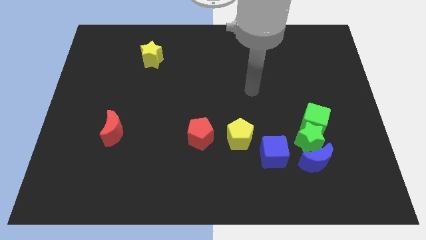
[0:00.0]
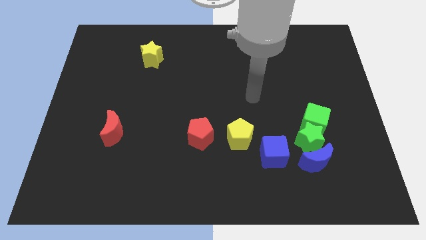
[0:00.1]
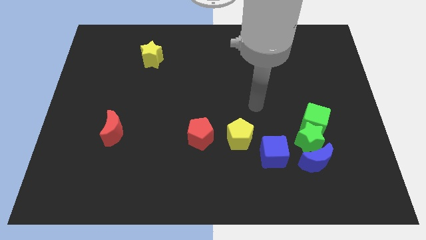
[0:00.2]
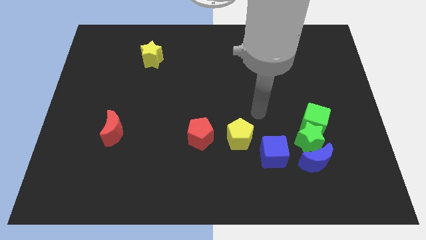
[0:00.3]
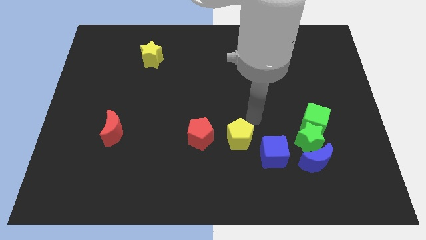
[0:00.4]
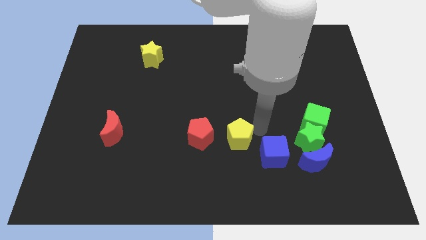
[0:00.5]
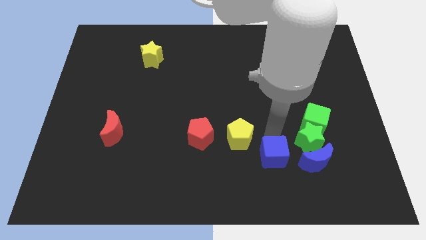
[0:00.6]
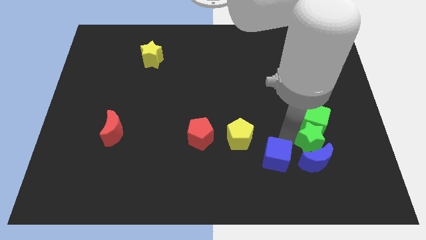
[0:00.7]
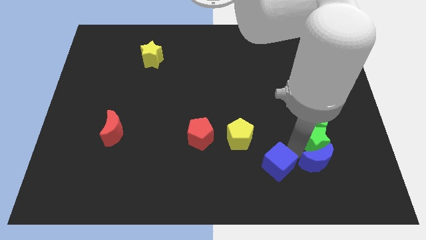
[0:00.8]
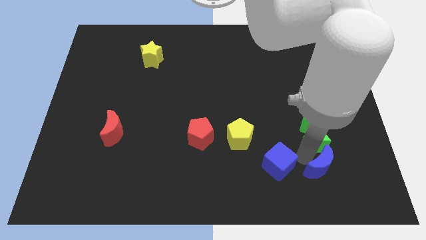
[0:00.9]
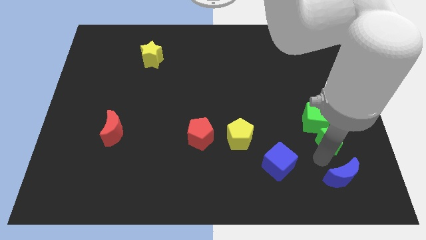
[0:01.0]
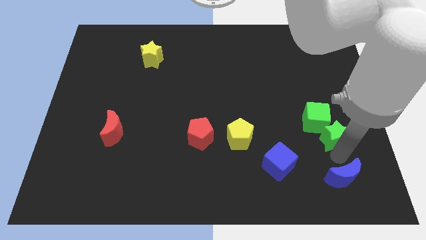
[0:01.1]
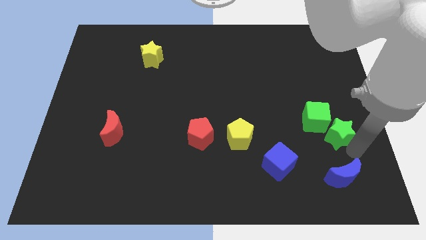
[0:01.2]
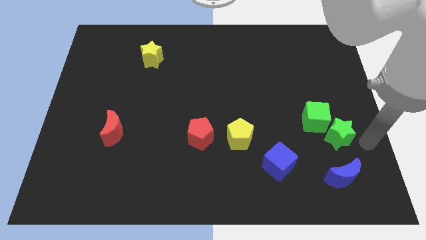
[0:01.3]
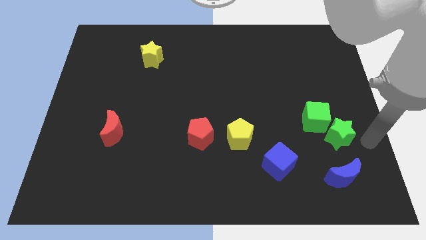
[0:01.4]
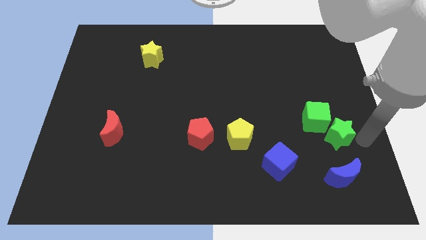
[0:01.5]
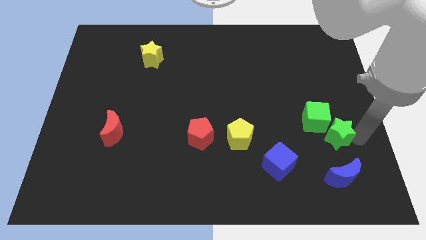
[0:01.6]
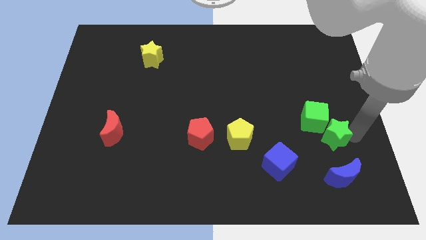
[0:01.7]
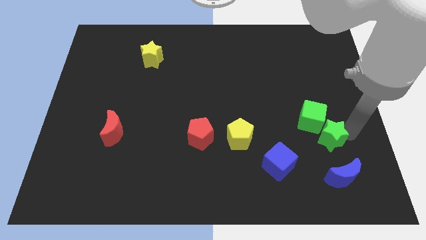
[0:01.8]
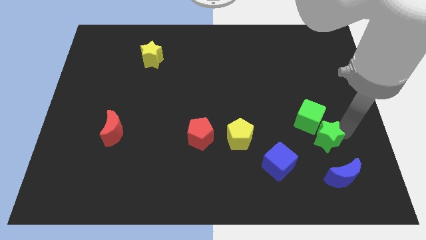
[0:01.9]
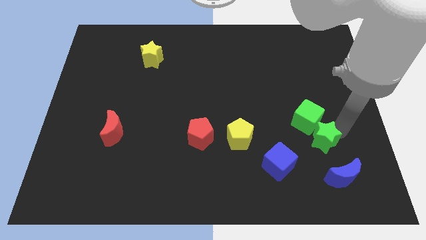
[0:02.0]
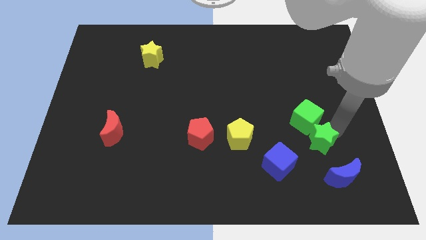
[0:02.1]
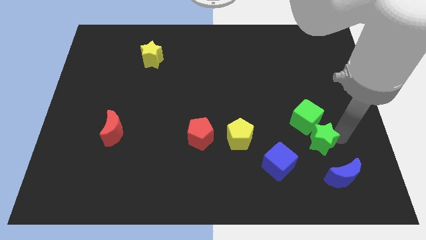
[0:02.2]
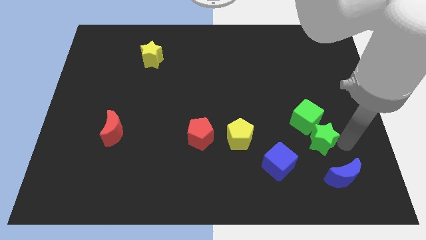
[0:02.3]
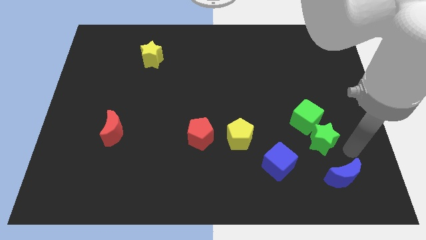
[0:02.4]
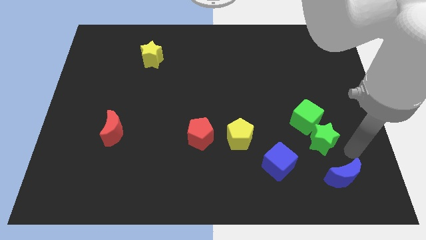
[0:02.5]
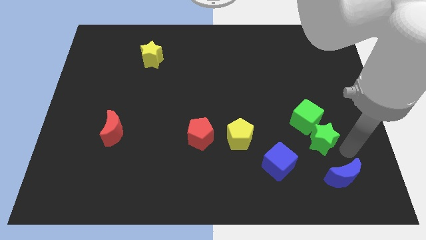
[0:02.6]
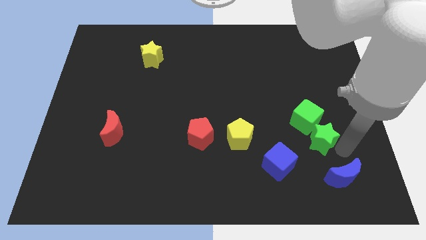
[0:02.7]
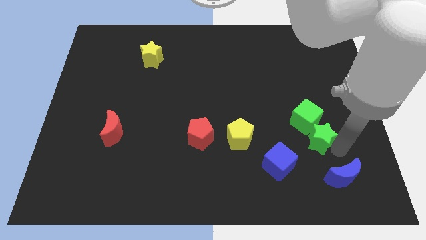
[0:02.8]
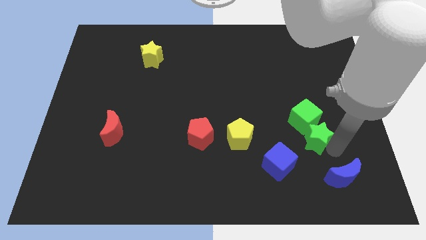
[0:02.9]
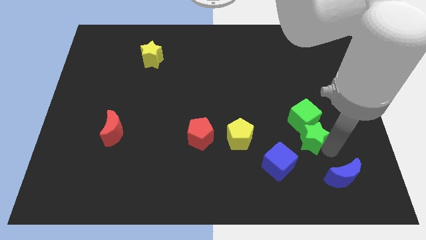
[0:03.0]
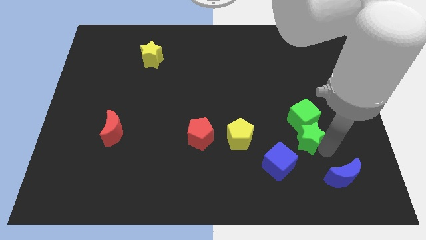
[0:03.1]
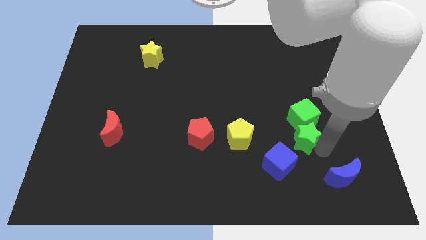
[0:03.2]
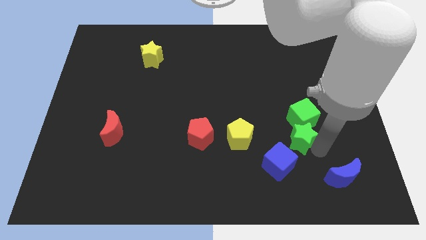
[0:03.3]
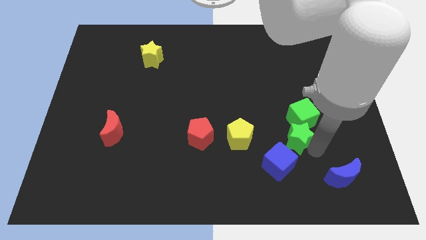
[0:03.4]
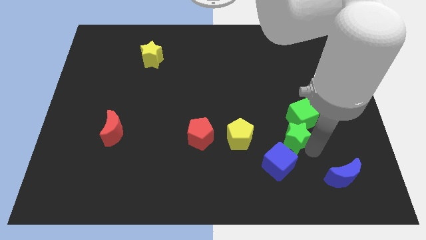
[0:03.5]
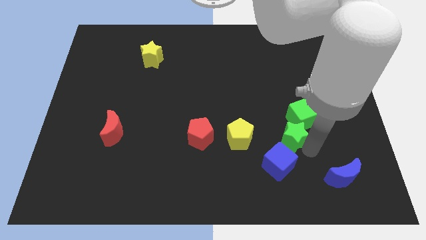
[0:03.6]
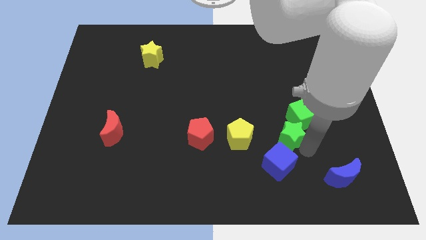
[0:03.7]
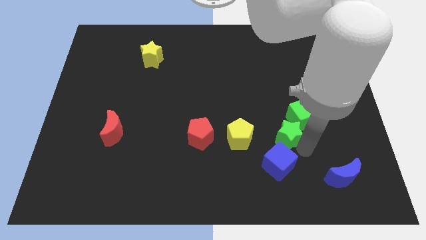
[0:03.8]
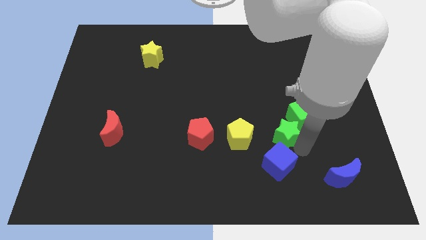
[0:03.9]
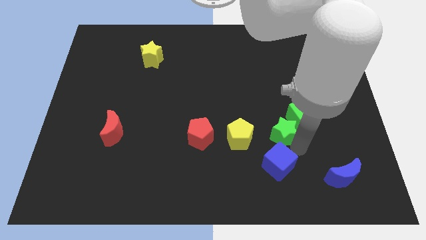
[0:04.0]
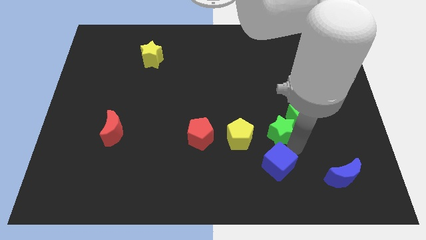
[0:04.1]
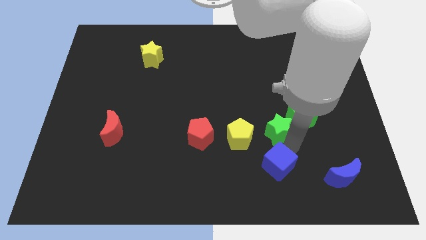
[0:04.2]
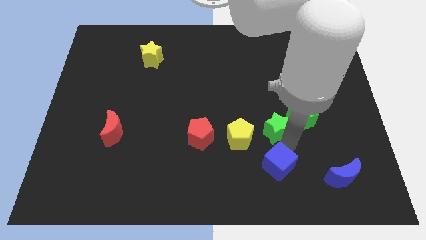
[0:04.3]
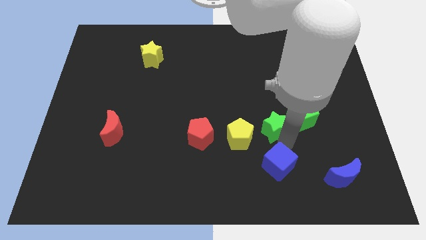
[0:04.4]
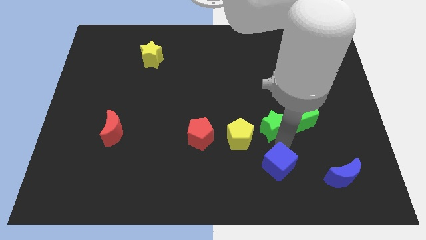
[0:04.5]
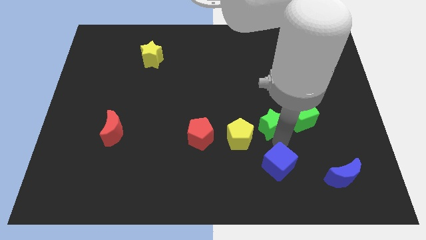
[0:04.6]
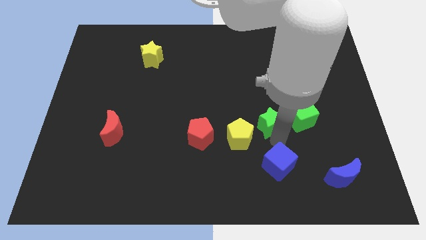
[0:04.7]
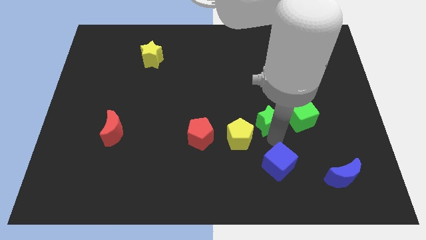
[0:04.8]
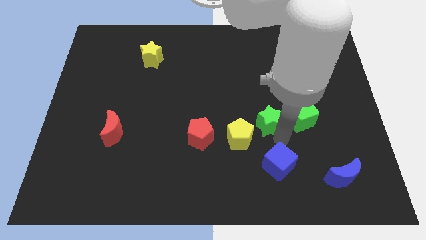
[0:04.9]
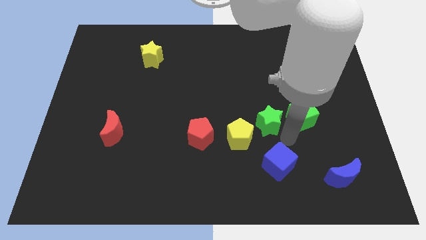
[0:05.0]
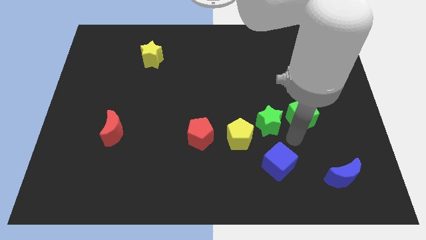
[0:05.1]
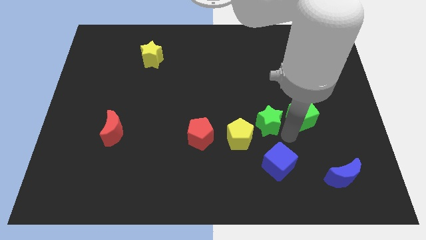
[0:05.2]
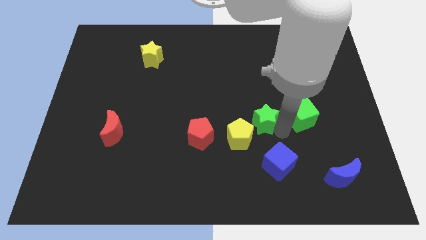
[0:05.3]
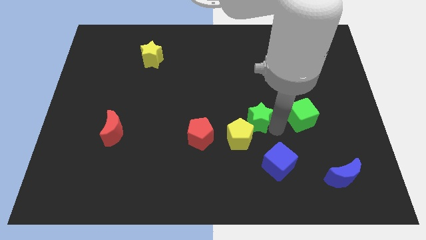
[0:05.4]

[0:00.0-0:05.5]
push the green star to the top of the yellow pentagon
